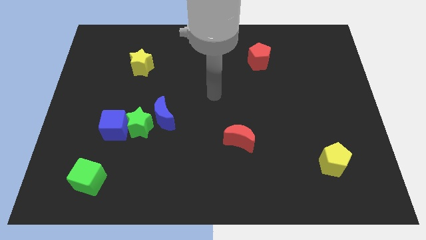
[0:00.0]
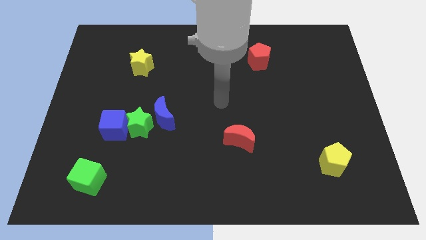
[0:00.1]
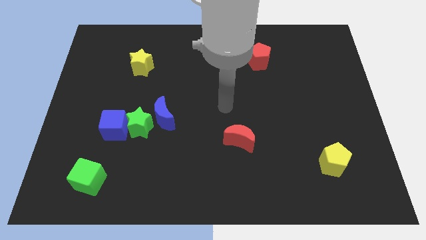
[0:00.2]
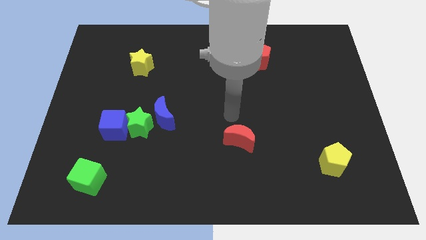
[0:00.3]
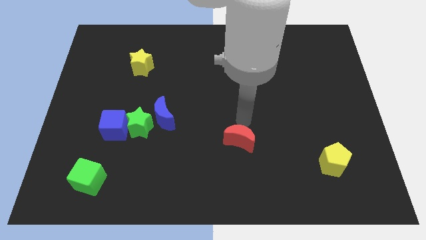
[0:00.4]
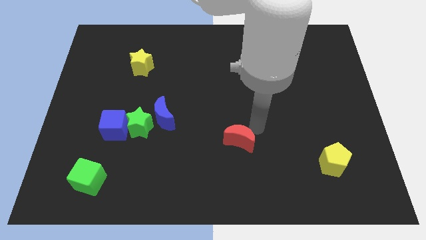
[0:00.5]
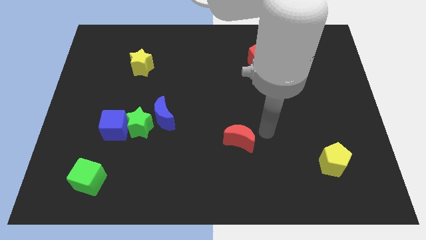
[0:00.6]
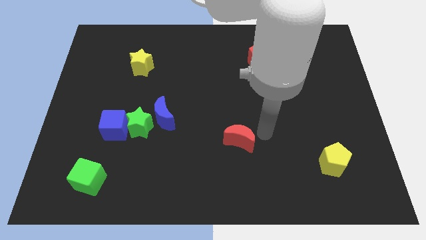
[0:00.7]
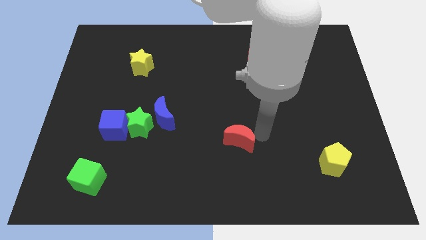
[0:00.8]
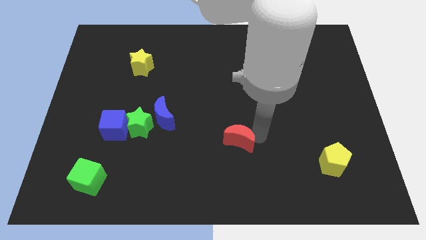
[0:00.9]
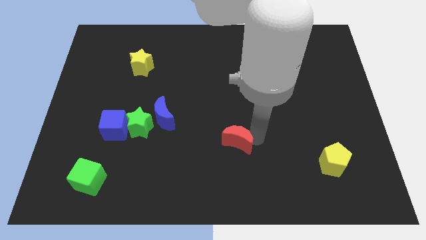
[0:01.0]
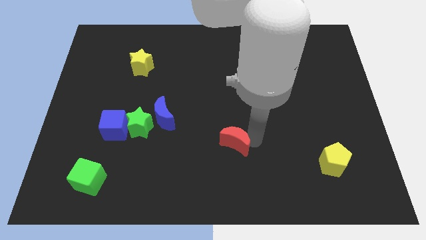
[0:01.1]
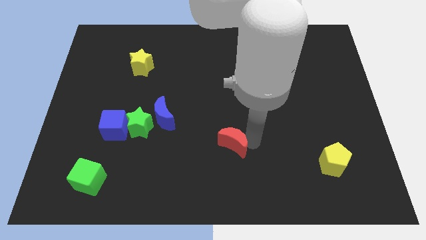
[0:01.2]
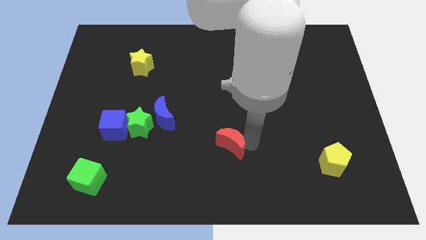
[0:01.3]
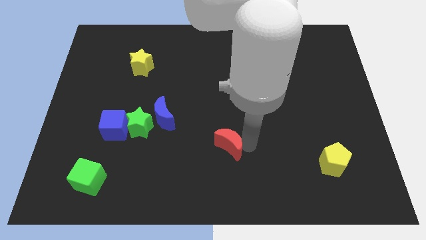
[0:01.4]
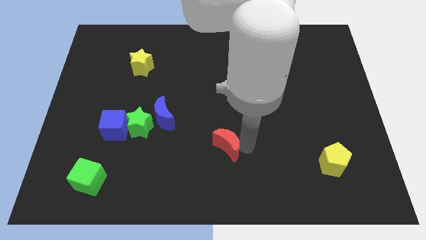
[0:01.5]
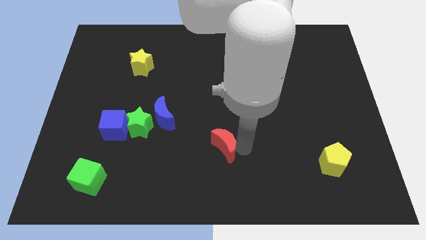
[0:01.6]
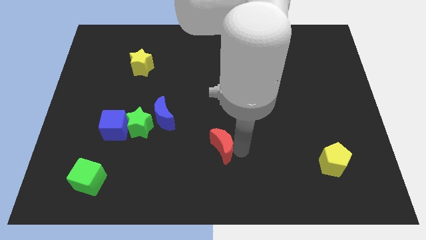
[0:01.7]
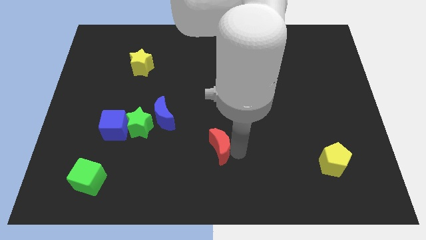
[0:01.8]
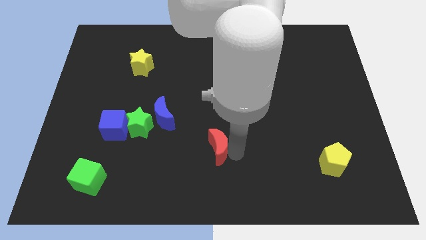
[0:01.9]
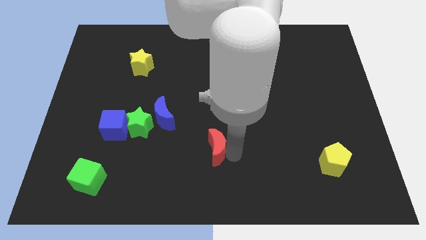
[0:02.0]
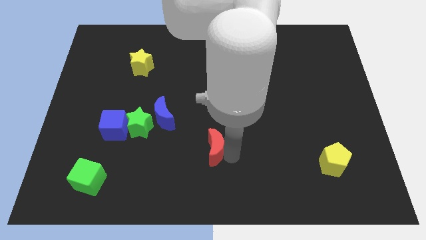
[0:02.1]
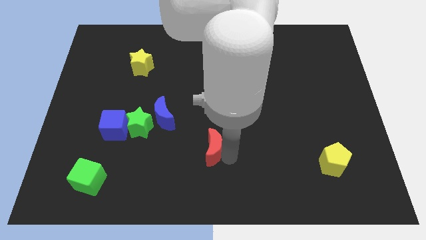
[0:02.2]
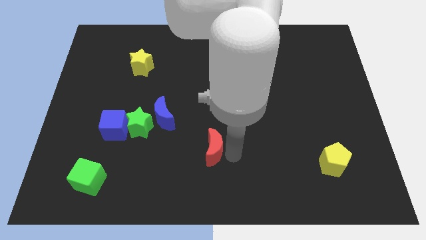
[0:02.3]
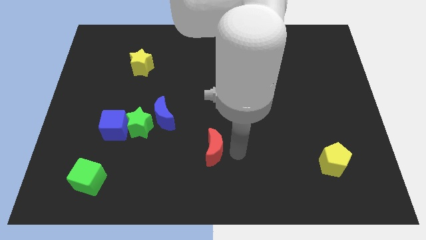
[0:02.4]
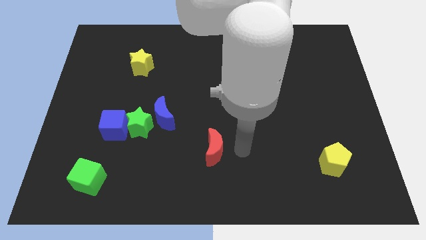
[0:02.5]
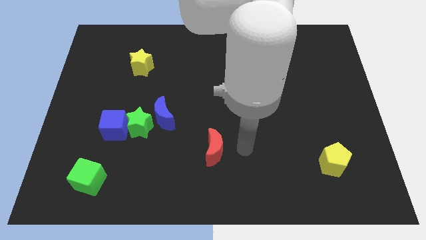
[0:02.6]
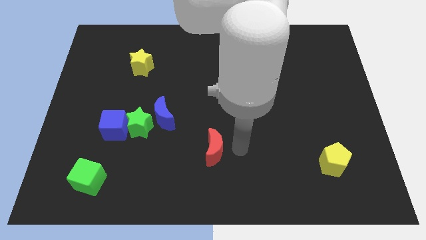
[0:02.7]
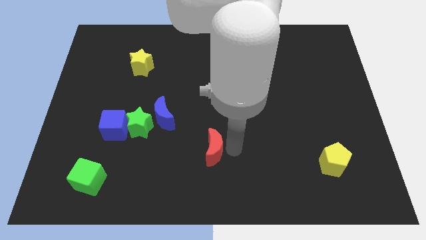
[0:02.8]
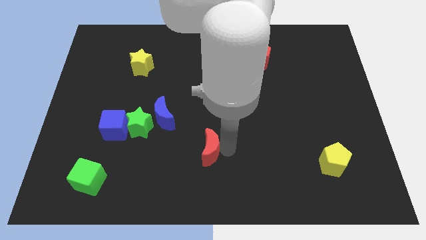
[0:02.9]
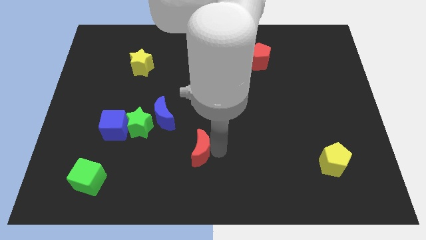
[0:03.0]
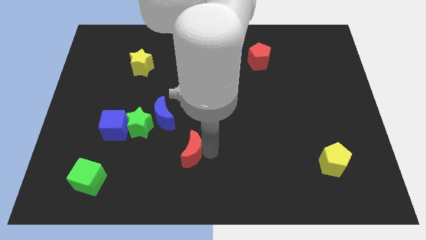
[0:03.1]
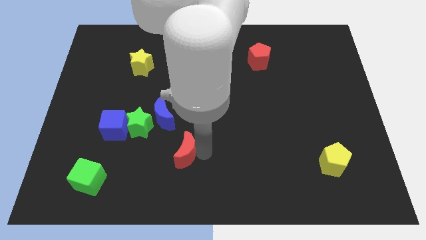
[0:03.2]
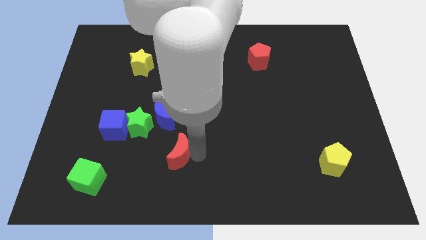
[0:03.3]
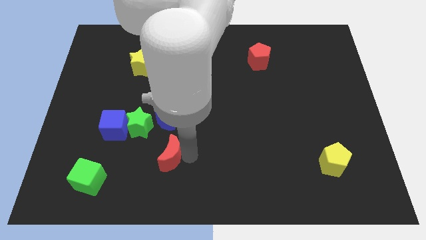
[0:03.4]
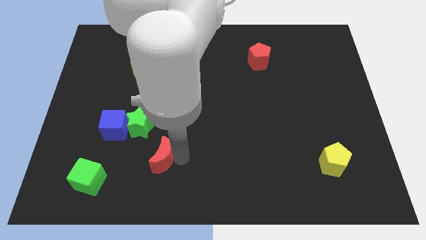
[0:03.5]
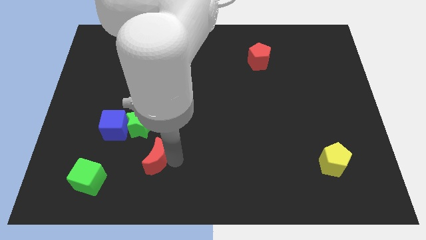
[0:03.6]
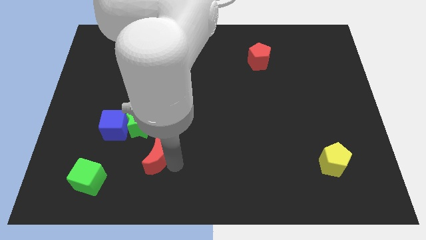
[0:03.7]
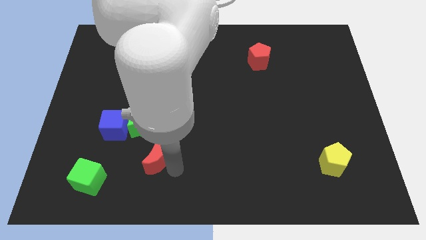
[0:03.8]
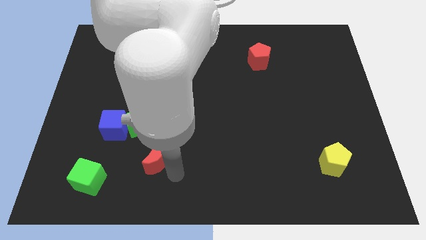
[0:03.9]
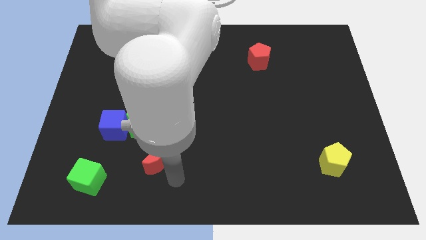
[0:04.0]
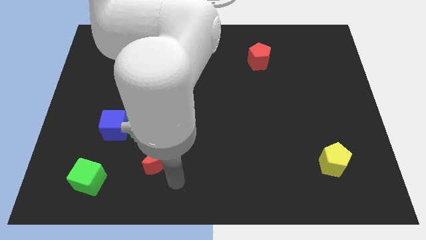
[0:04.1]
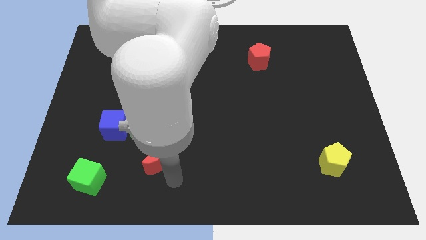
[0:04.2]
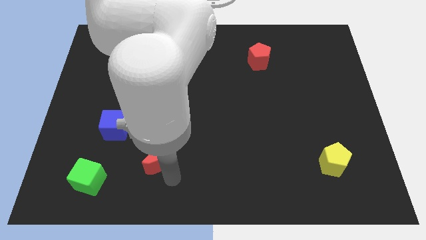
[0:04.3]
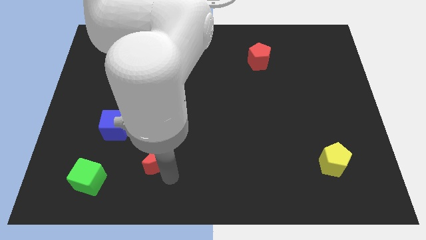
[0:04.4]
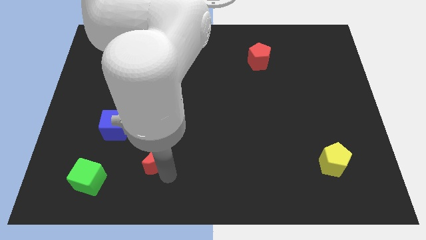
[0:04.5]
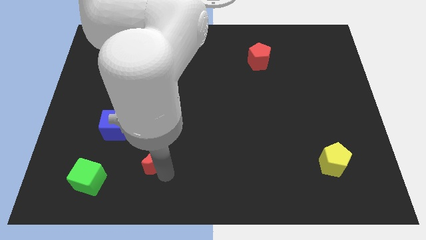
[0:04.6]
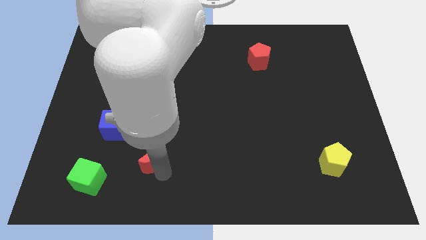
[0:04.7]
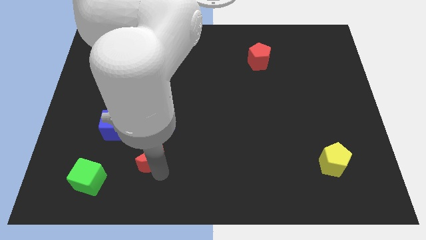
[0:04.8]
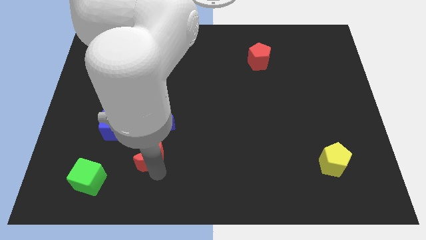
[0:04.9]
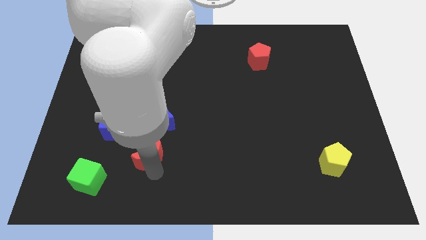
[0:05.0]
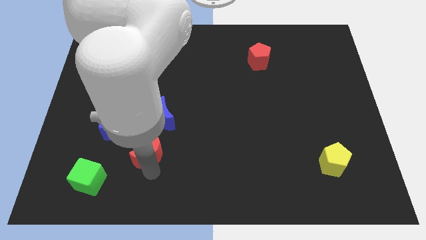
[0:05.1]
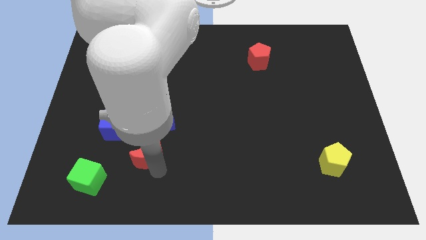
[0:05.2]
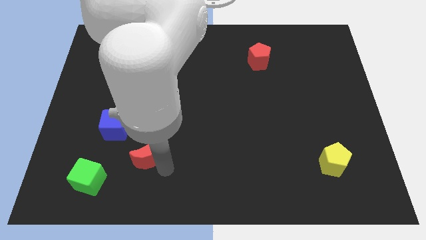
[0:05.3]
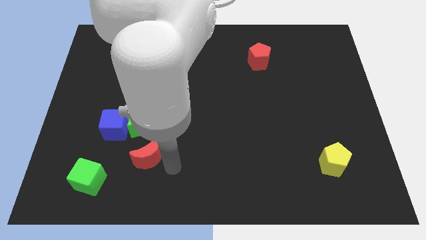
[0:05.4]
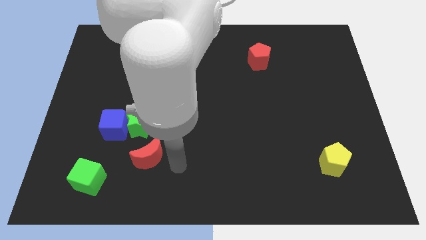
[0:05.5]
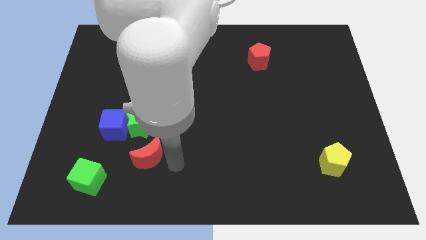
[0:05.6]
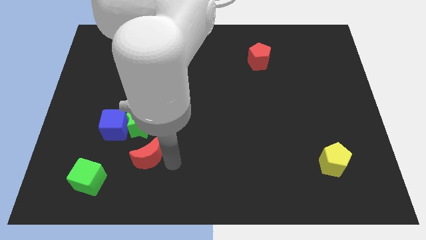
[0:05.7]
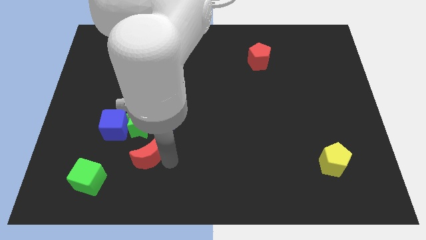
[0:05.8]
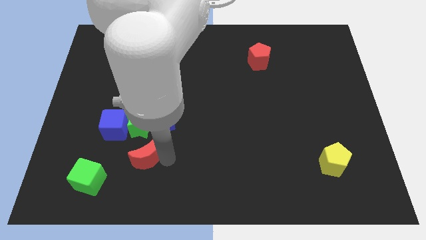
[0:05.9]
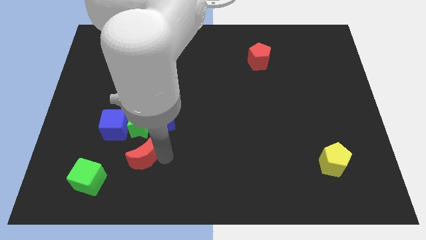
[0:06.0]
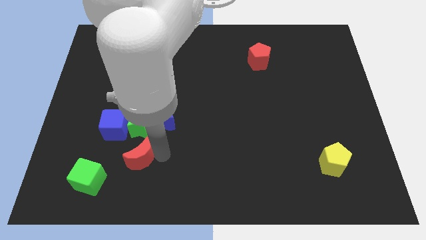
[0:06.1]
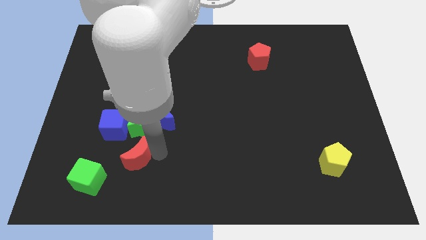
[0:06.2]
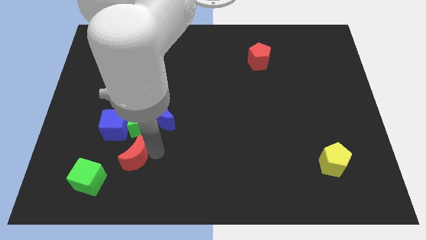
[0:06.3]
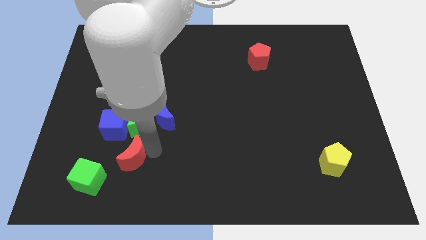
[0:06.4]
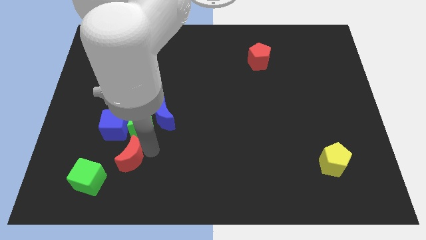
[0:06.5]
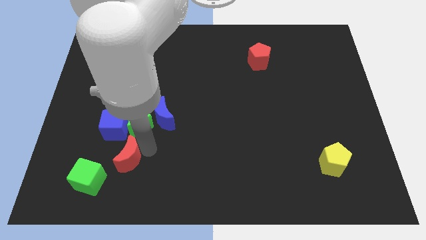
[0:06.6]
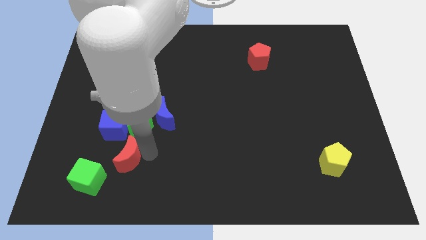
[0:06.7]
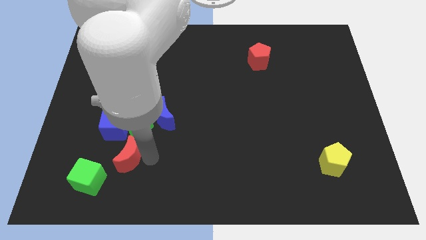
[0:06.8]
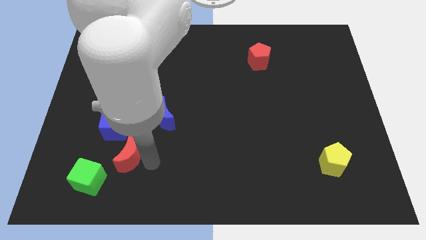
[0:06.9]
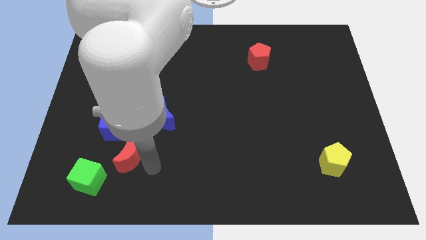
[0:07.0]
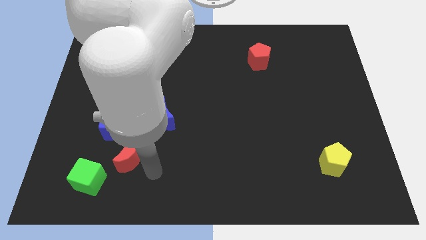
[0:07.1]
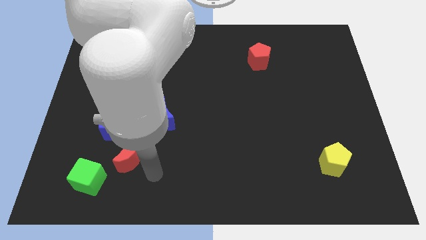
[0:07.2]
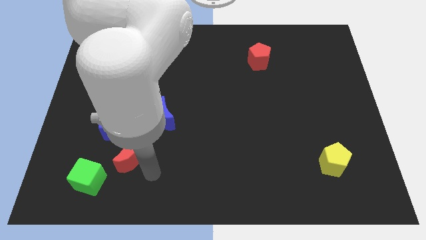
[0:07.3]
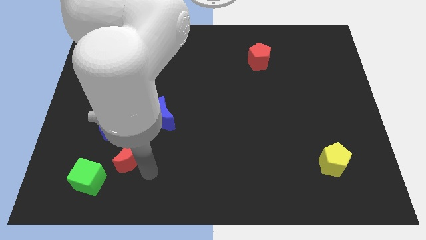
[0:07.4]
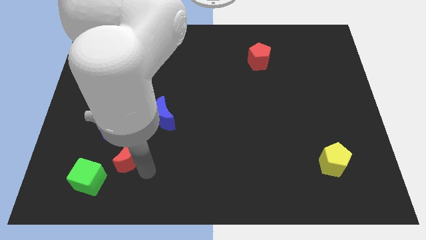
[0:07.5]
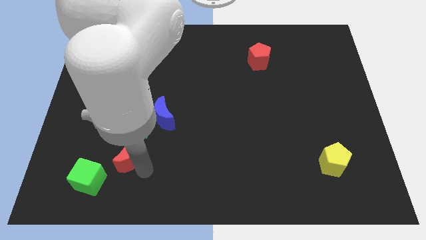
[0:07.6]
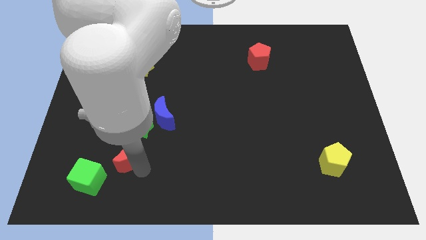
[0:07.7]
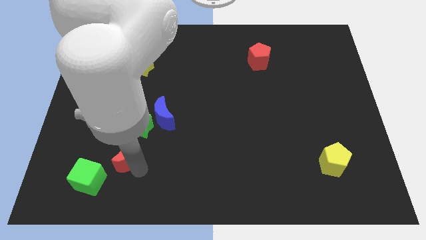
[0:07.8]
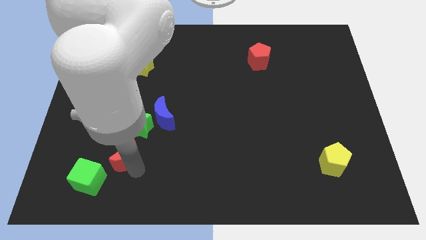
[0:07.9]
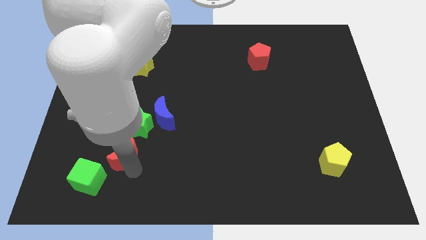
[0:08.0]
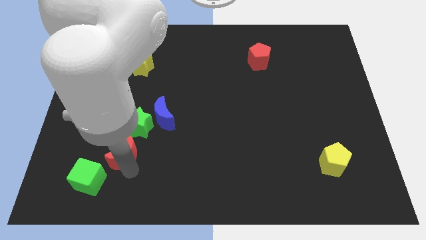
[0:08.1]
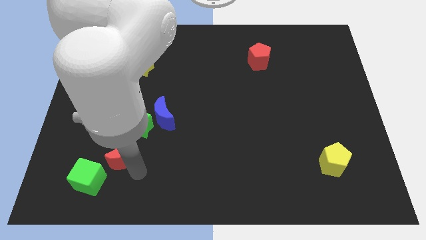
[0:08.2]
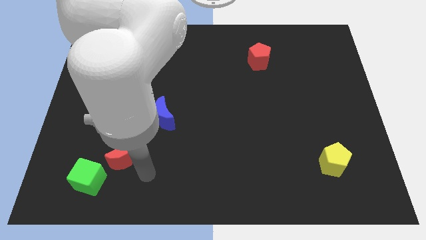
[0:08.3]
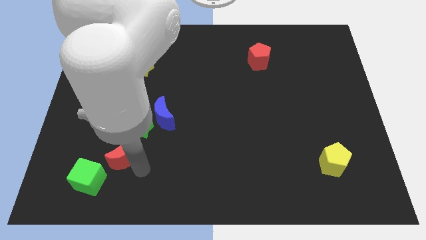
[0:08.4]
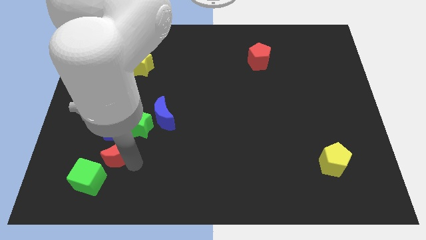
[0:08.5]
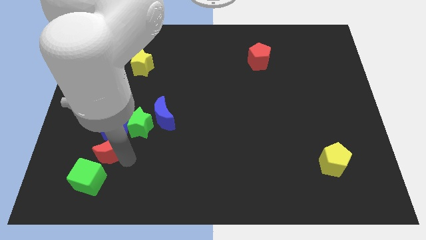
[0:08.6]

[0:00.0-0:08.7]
slide the red moon to the top side of the green cube
